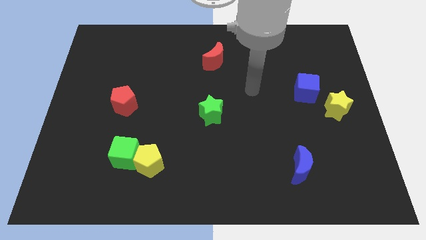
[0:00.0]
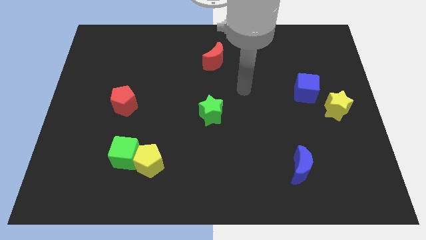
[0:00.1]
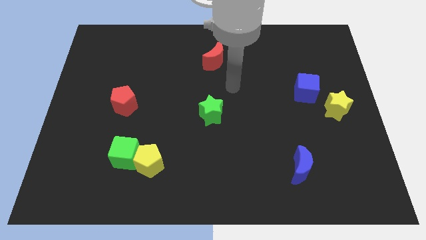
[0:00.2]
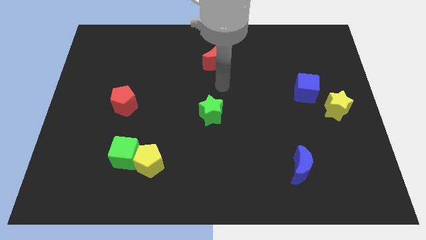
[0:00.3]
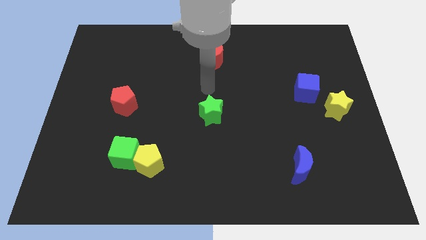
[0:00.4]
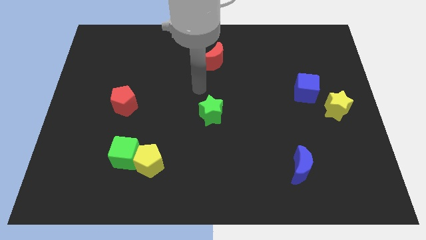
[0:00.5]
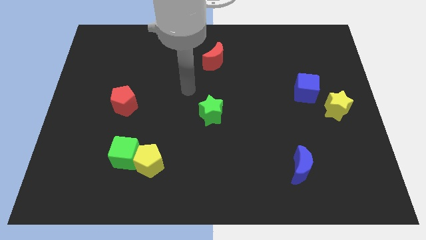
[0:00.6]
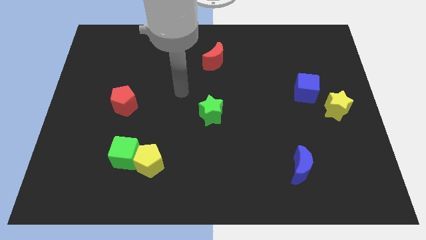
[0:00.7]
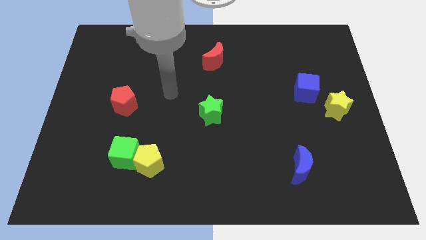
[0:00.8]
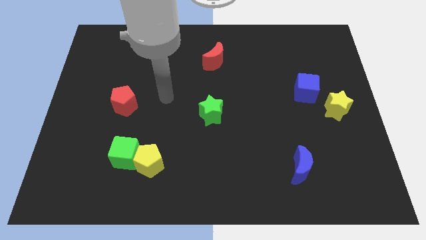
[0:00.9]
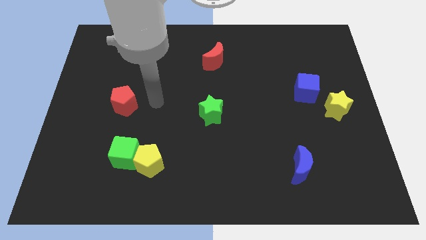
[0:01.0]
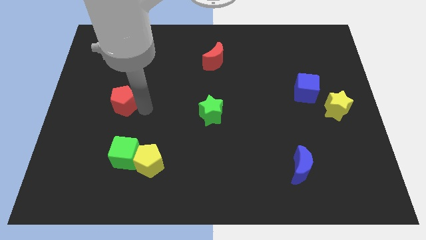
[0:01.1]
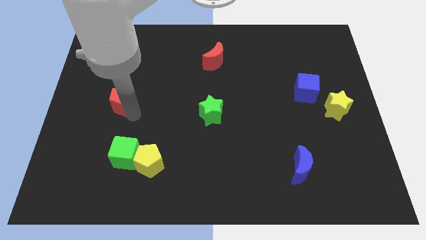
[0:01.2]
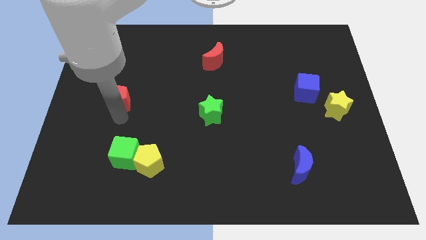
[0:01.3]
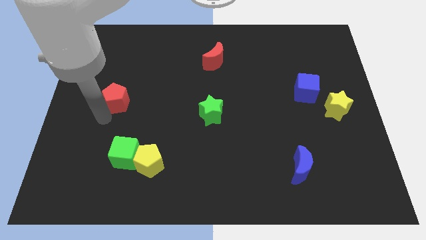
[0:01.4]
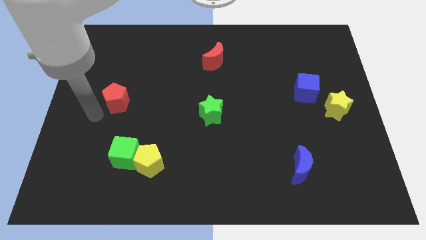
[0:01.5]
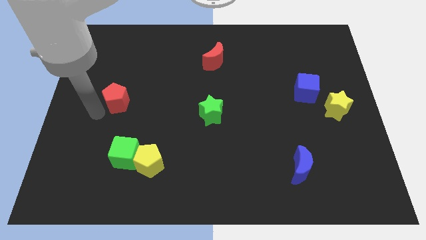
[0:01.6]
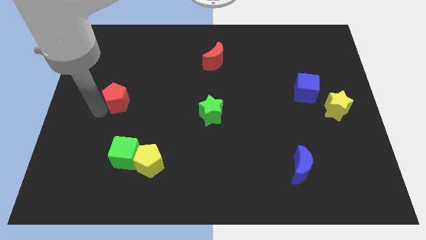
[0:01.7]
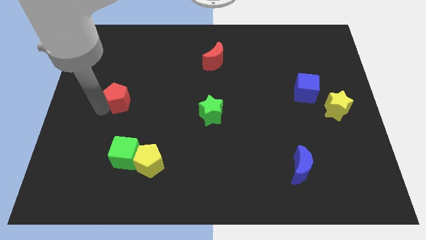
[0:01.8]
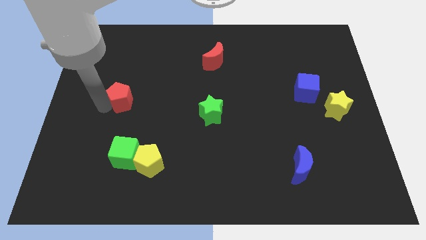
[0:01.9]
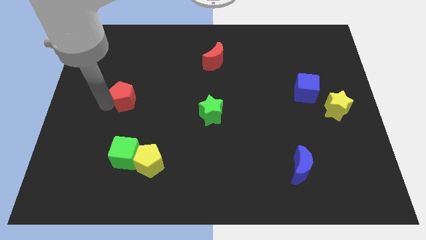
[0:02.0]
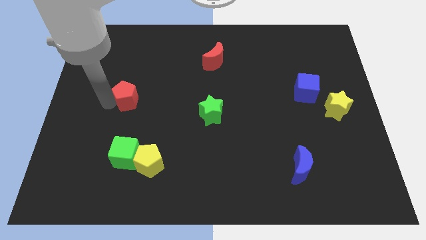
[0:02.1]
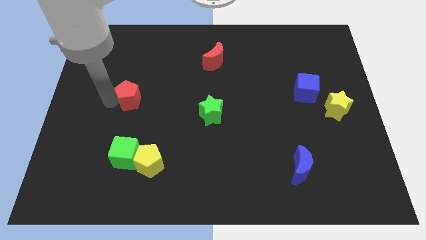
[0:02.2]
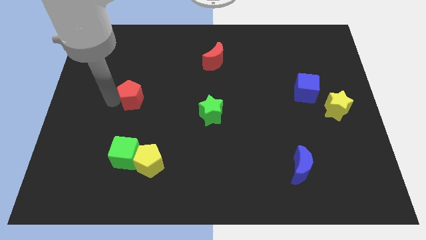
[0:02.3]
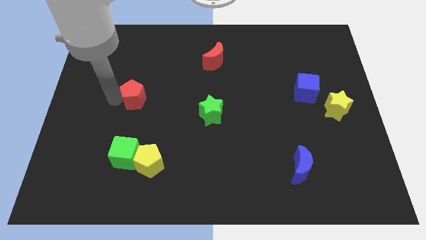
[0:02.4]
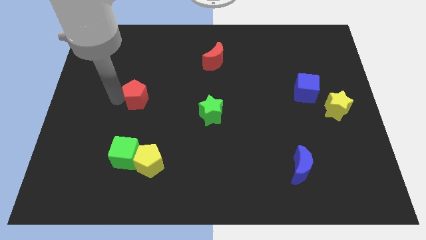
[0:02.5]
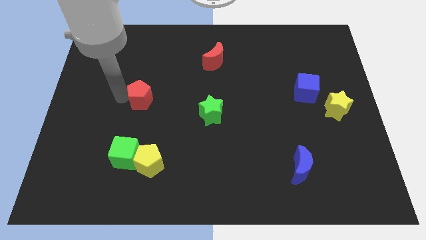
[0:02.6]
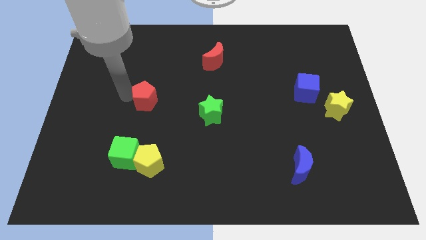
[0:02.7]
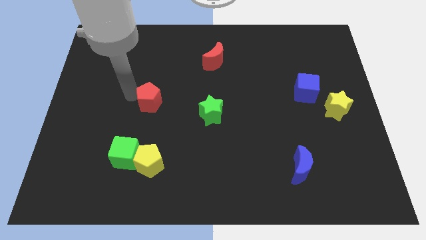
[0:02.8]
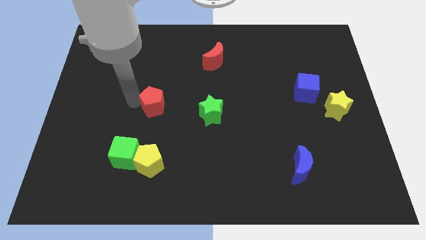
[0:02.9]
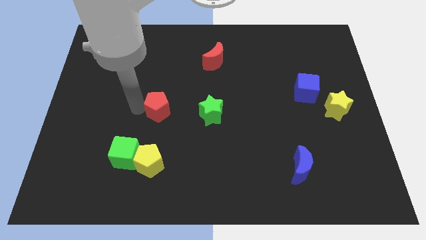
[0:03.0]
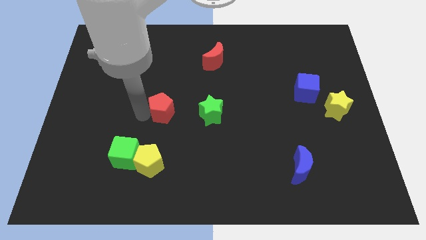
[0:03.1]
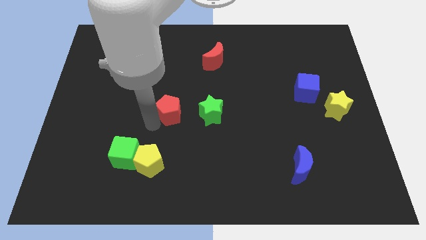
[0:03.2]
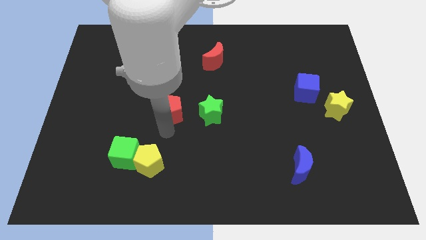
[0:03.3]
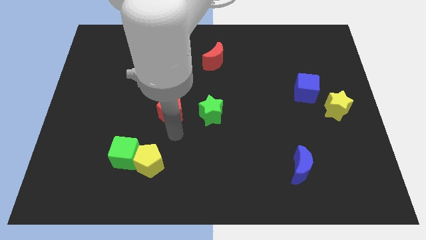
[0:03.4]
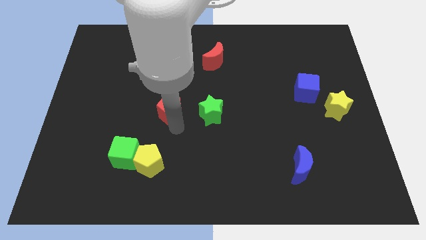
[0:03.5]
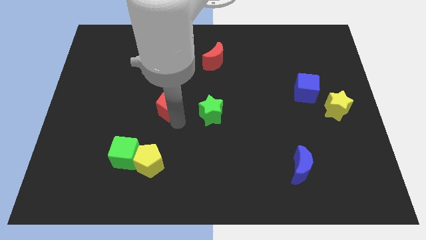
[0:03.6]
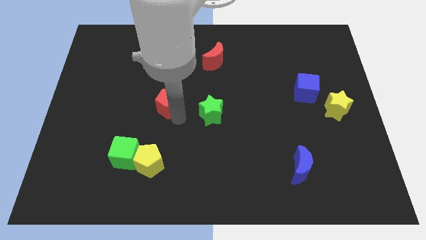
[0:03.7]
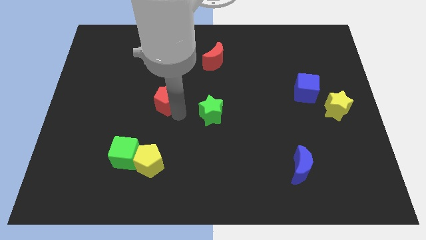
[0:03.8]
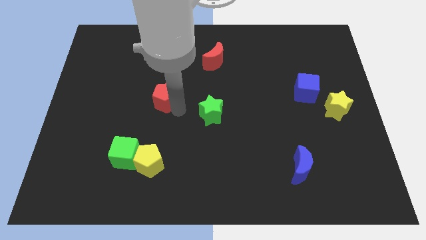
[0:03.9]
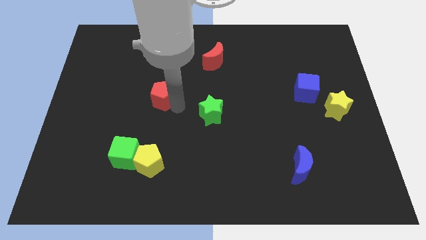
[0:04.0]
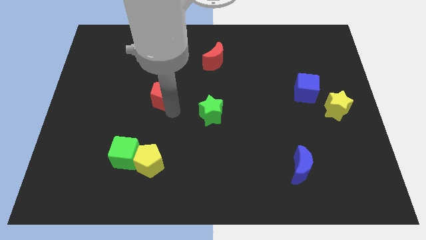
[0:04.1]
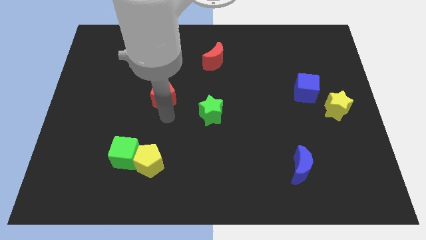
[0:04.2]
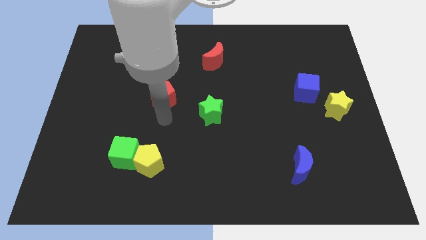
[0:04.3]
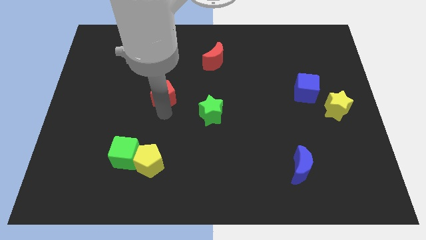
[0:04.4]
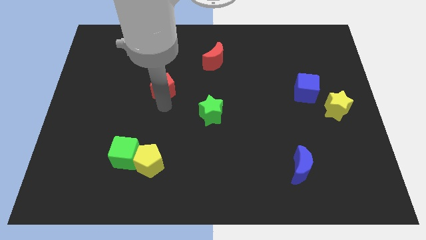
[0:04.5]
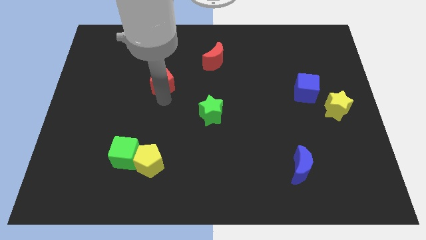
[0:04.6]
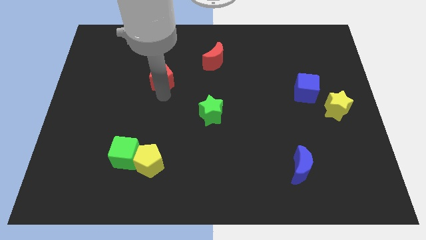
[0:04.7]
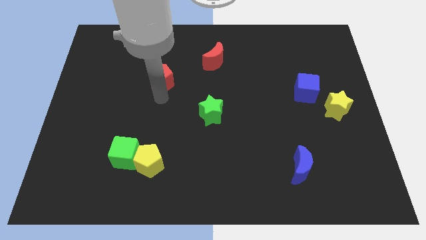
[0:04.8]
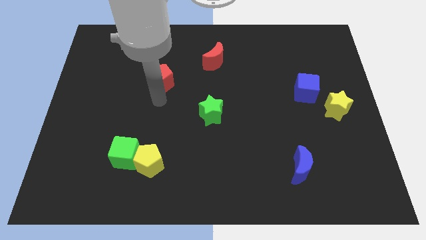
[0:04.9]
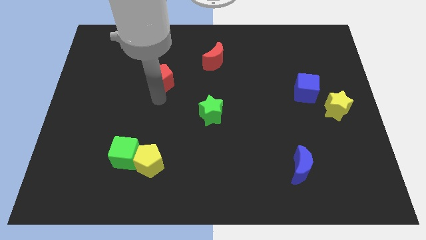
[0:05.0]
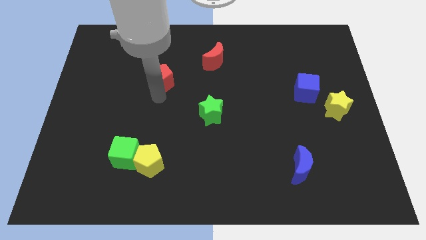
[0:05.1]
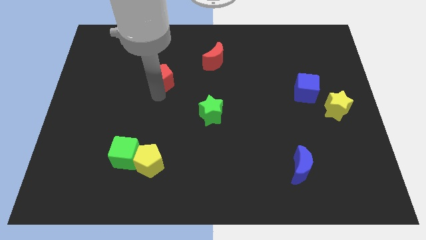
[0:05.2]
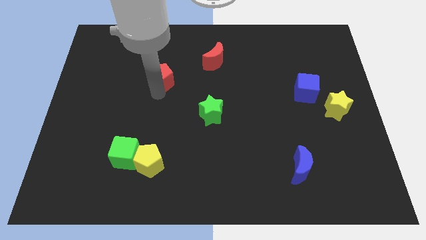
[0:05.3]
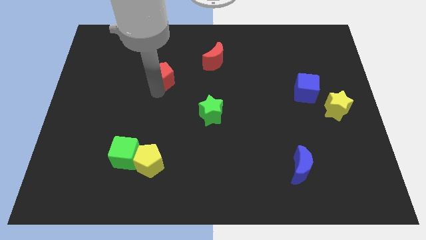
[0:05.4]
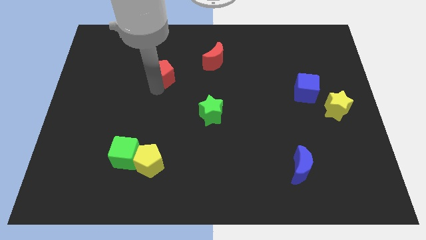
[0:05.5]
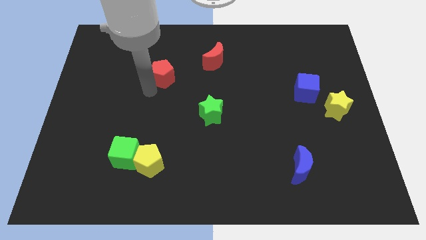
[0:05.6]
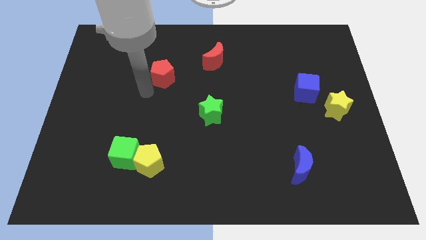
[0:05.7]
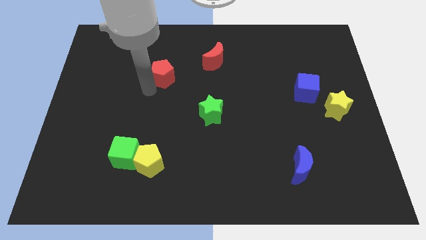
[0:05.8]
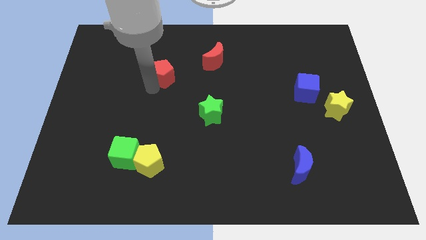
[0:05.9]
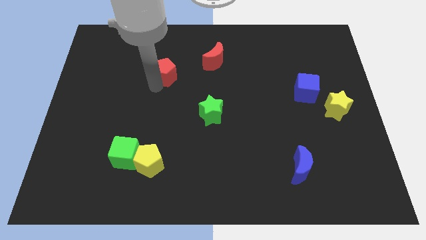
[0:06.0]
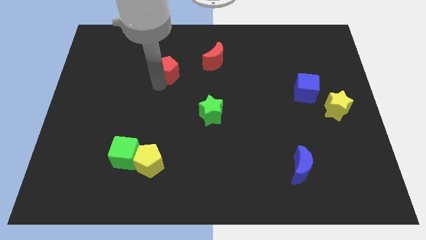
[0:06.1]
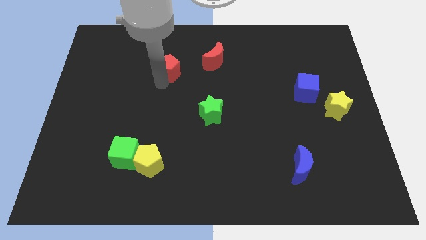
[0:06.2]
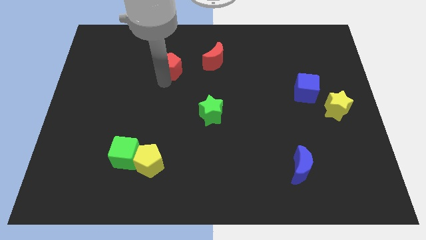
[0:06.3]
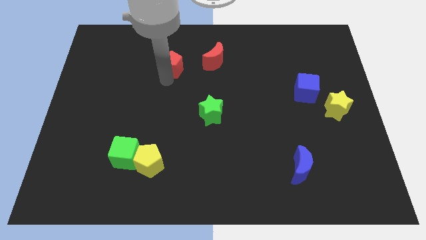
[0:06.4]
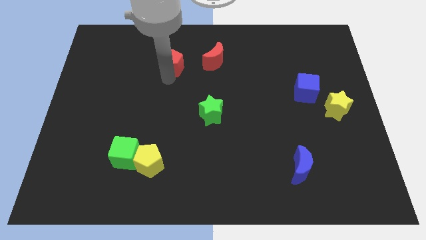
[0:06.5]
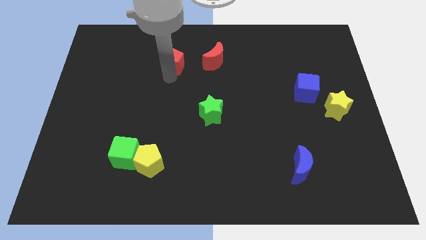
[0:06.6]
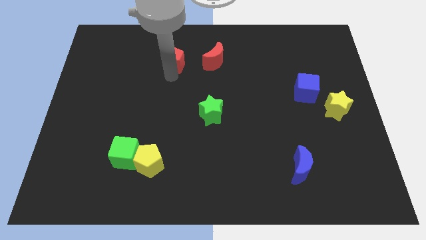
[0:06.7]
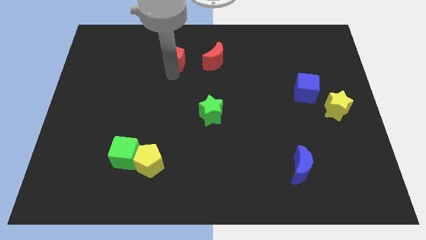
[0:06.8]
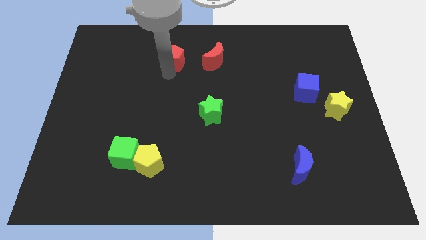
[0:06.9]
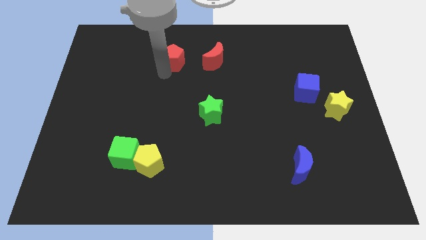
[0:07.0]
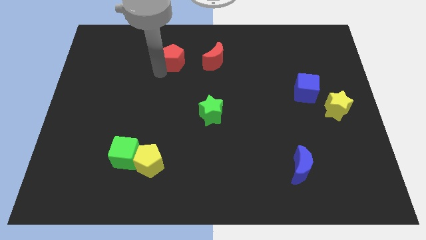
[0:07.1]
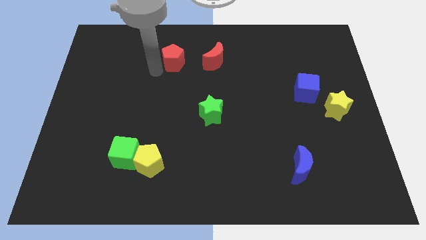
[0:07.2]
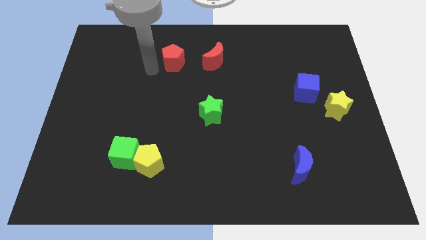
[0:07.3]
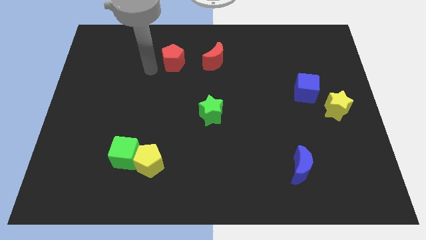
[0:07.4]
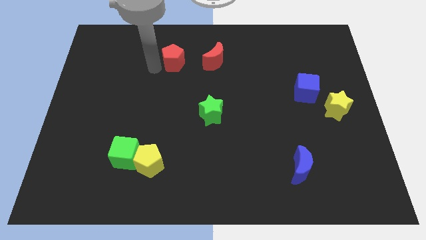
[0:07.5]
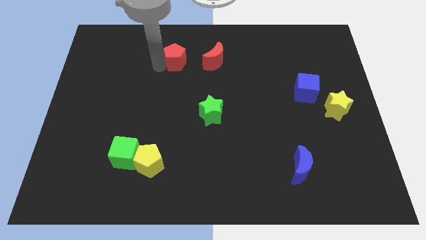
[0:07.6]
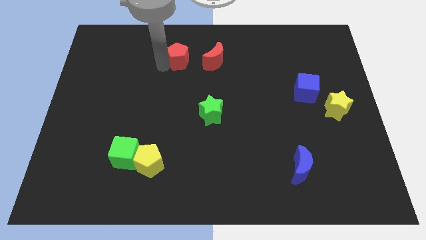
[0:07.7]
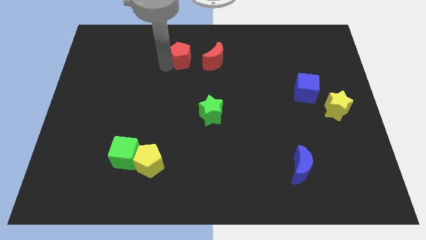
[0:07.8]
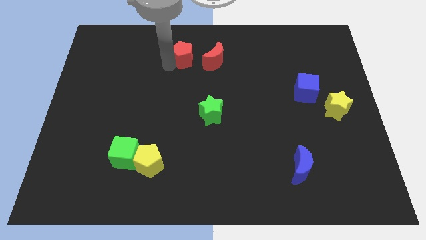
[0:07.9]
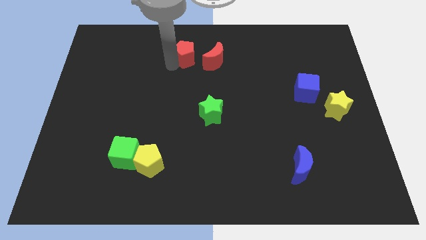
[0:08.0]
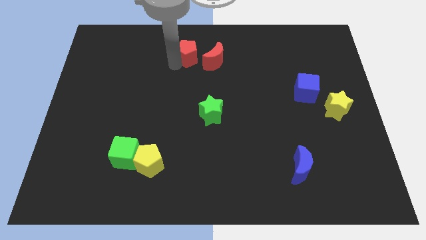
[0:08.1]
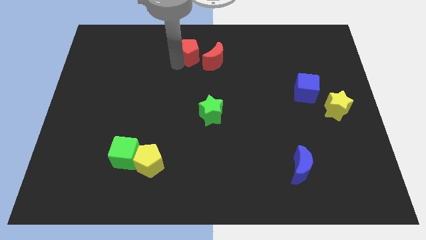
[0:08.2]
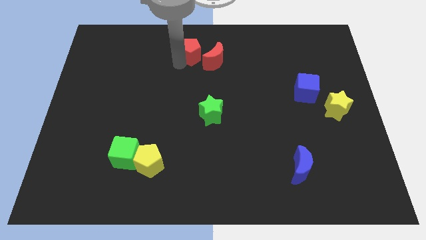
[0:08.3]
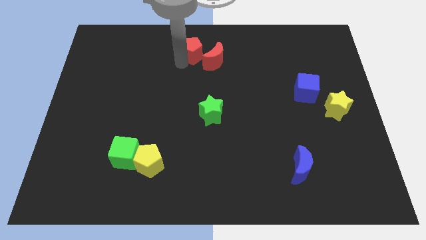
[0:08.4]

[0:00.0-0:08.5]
move the red pentagon to the towards your base
